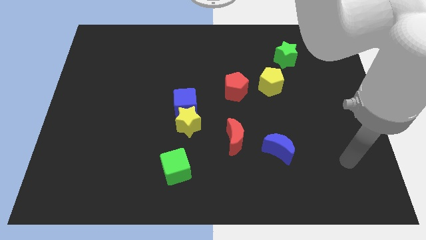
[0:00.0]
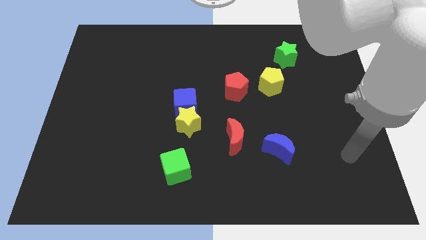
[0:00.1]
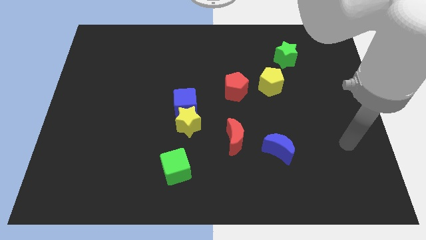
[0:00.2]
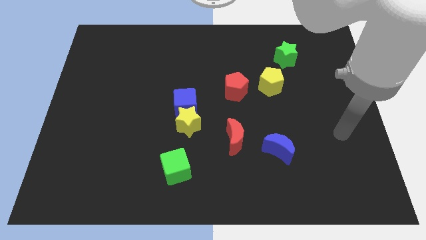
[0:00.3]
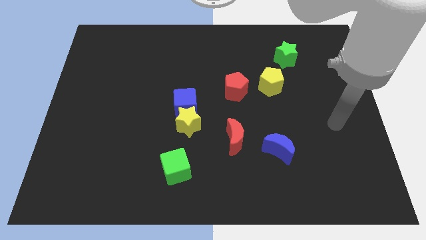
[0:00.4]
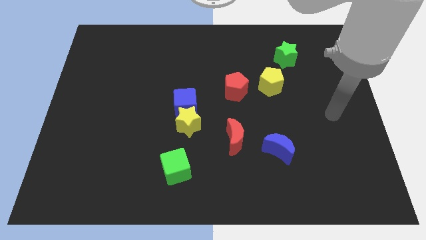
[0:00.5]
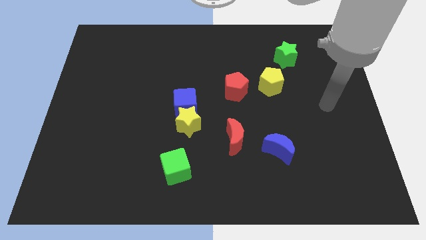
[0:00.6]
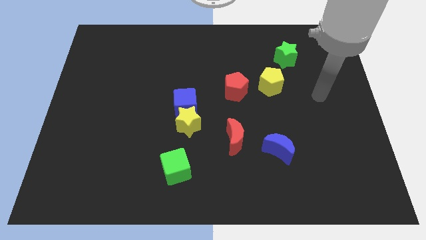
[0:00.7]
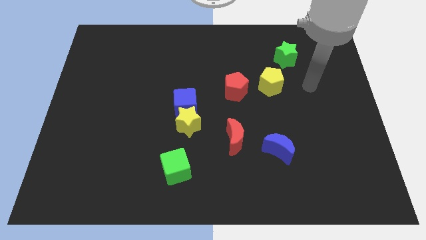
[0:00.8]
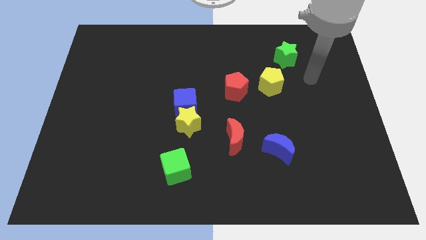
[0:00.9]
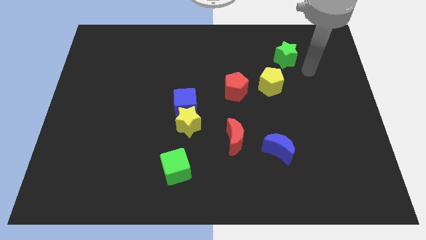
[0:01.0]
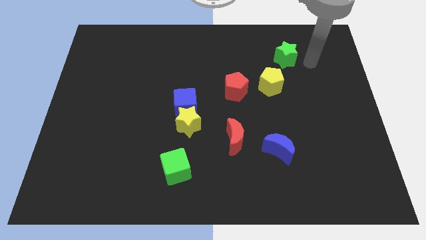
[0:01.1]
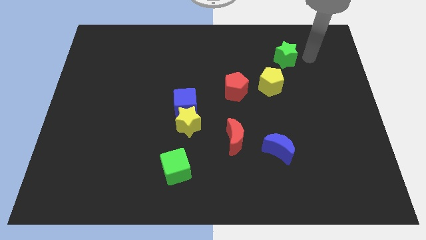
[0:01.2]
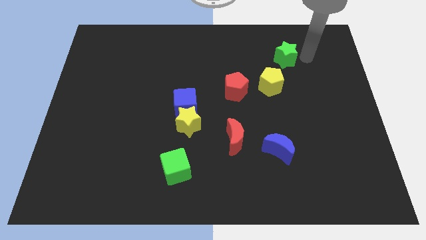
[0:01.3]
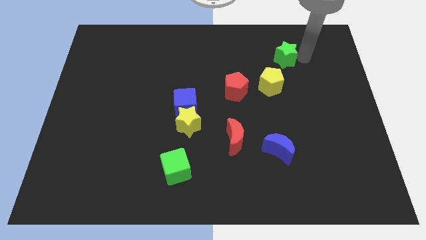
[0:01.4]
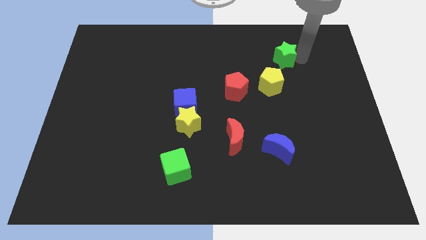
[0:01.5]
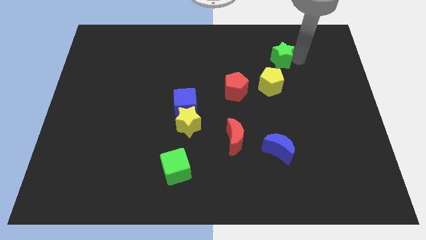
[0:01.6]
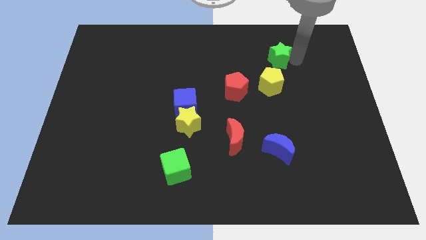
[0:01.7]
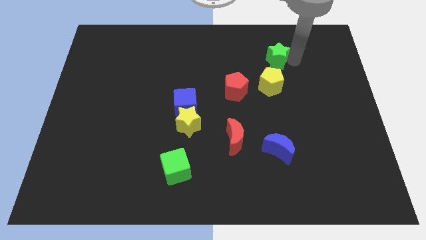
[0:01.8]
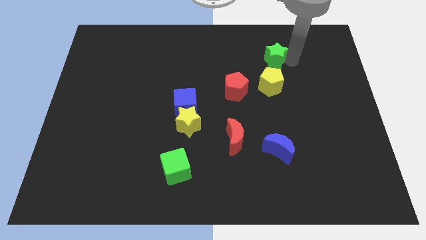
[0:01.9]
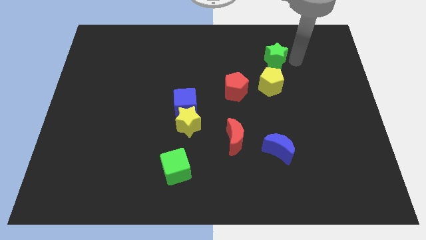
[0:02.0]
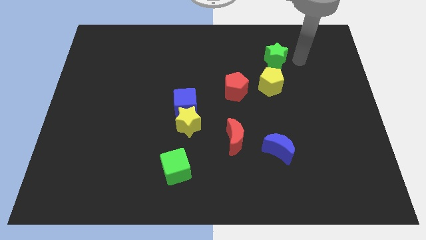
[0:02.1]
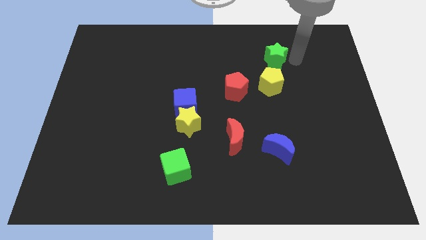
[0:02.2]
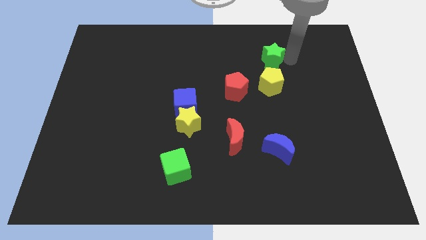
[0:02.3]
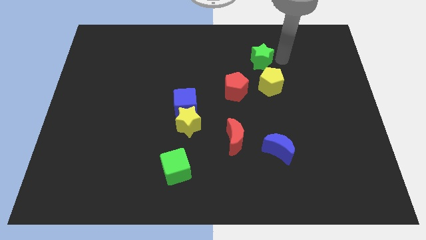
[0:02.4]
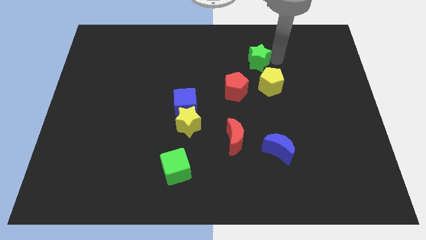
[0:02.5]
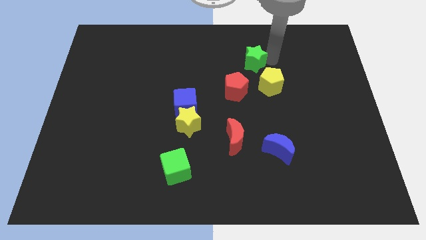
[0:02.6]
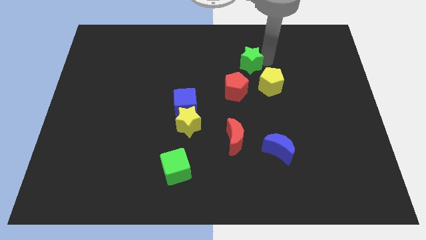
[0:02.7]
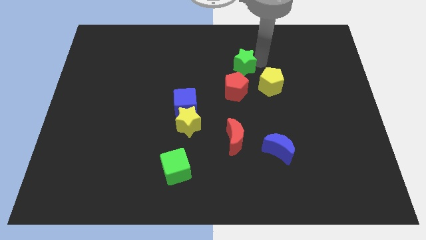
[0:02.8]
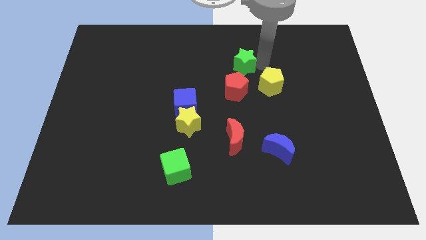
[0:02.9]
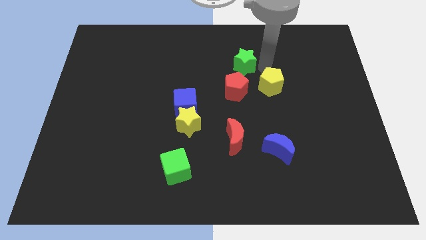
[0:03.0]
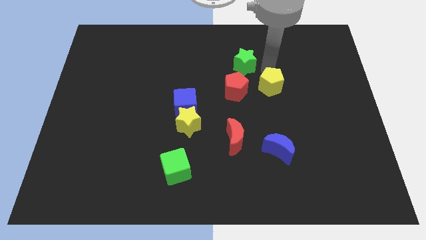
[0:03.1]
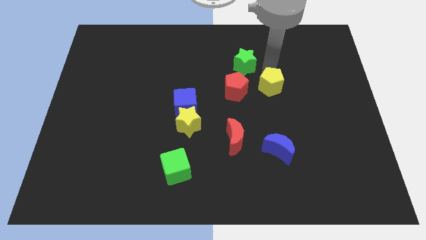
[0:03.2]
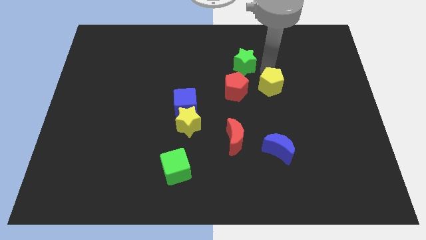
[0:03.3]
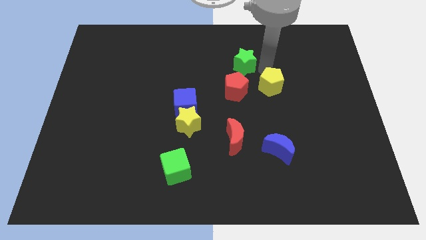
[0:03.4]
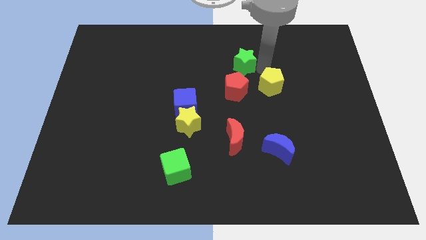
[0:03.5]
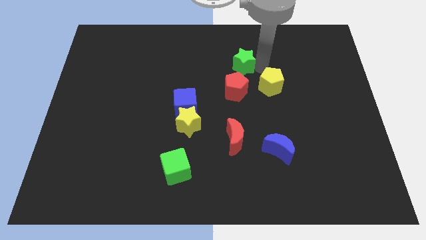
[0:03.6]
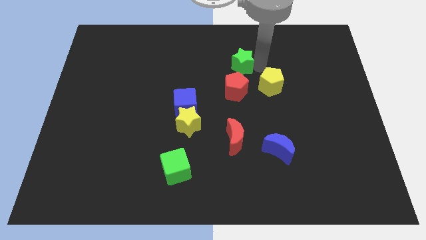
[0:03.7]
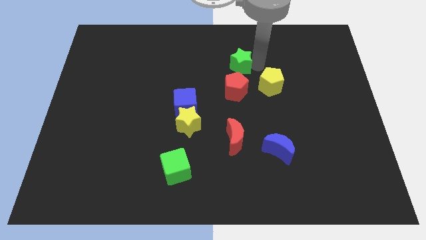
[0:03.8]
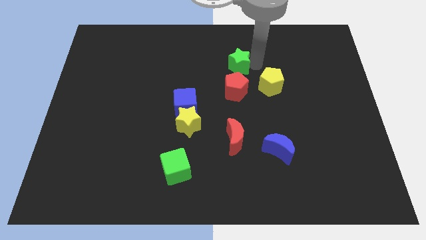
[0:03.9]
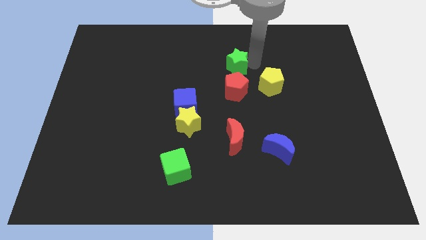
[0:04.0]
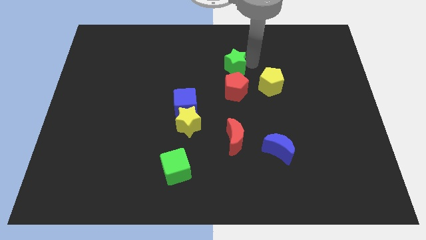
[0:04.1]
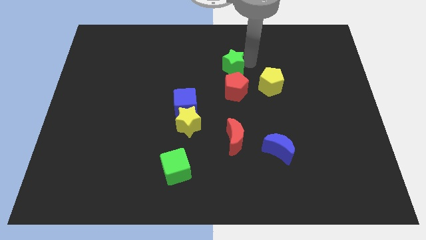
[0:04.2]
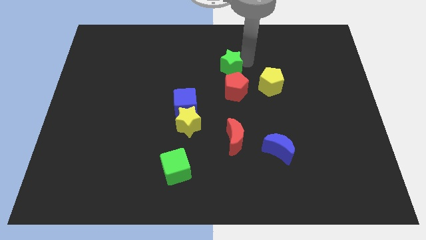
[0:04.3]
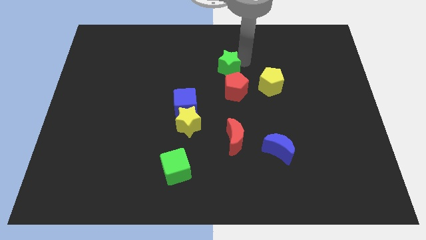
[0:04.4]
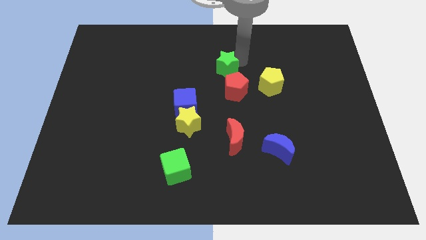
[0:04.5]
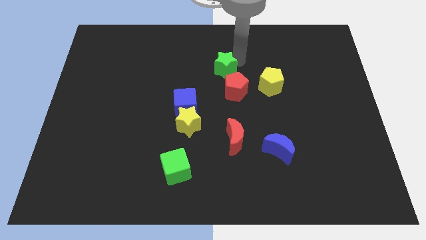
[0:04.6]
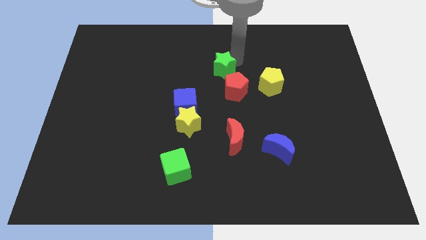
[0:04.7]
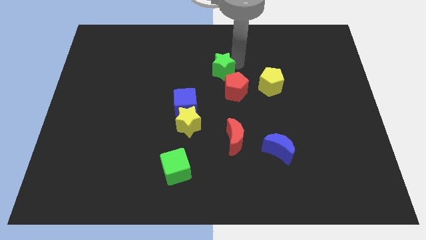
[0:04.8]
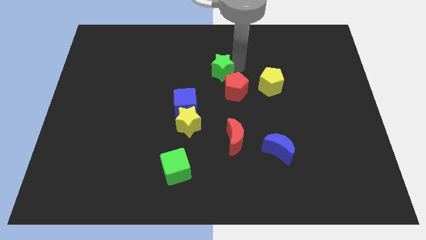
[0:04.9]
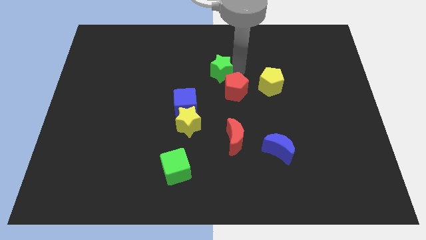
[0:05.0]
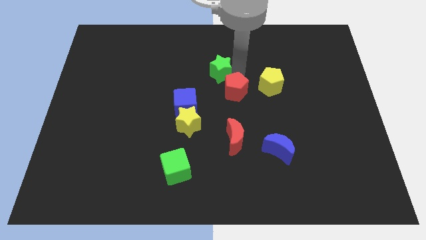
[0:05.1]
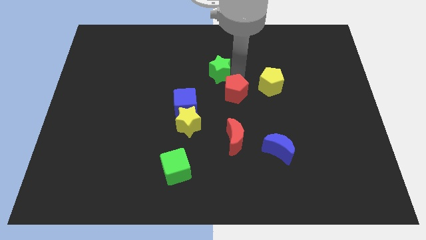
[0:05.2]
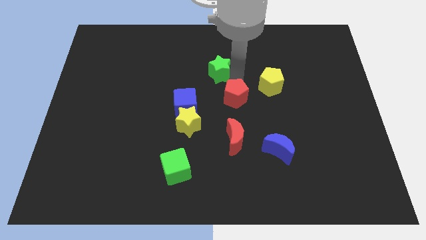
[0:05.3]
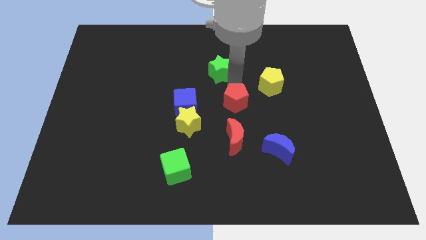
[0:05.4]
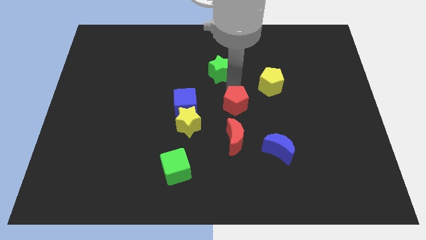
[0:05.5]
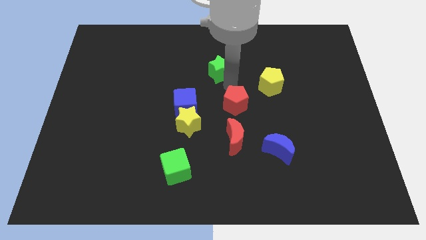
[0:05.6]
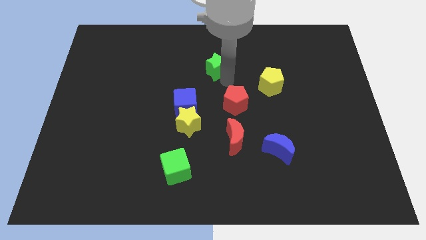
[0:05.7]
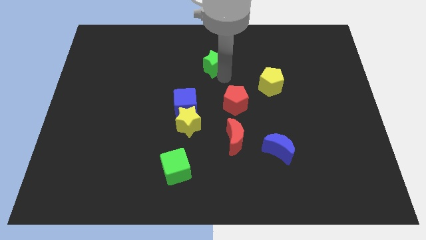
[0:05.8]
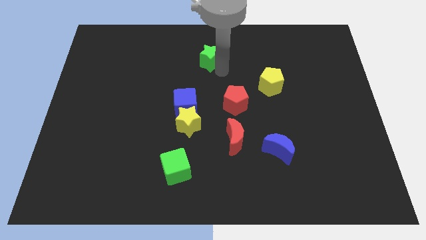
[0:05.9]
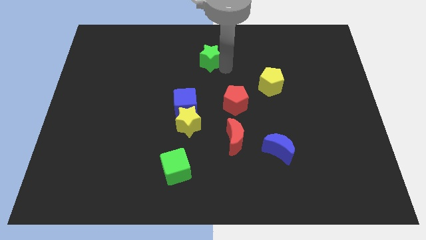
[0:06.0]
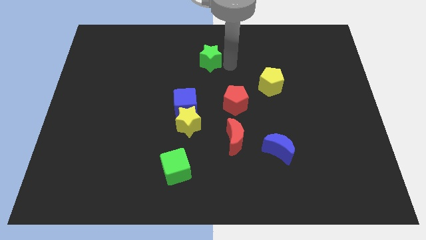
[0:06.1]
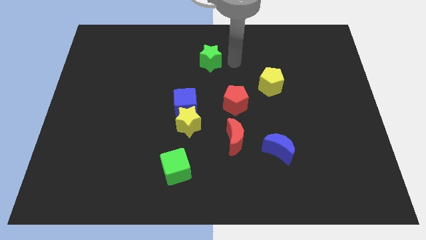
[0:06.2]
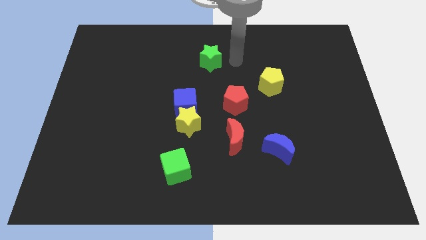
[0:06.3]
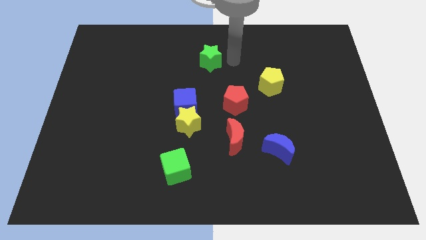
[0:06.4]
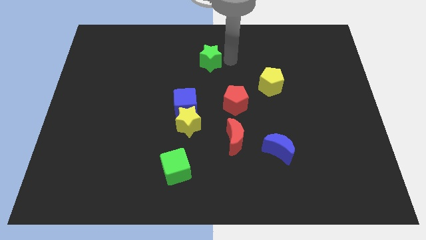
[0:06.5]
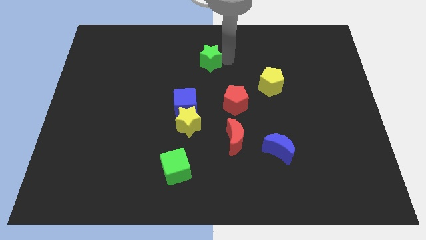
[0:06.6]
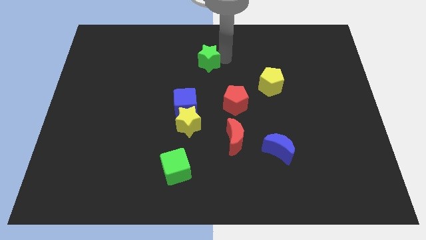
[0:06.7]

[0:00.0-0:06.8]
slide the green star to the left

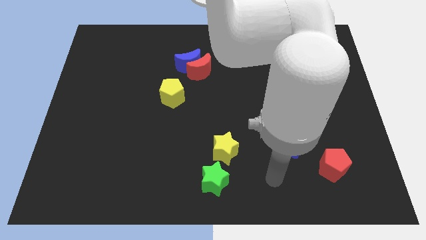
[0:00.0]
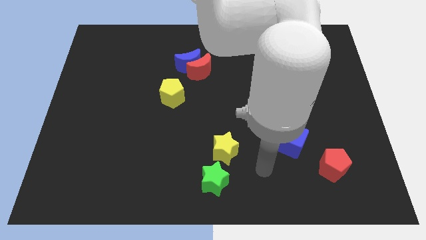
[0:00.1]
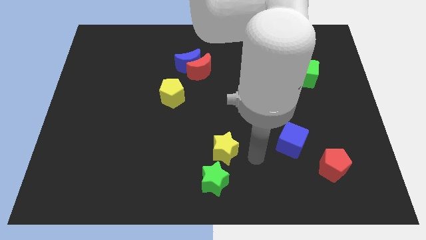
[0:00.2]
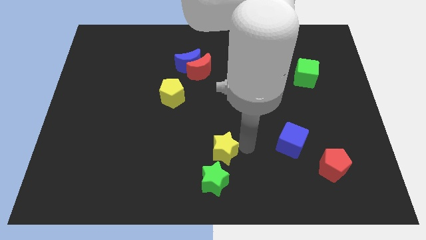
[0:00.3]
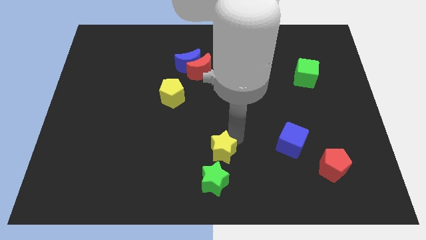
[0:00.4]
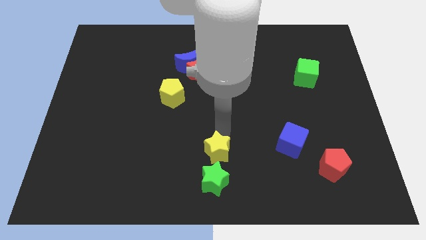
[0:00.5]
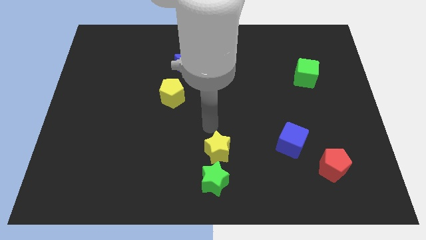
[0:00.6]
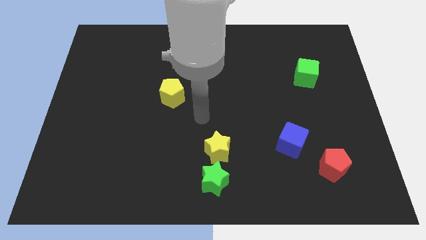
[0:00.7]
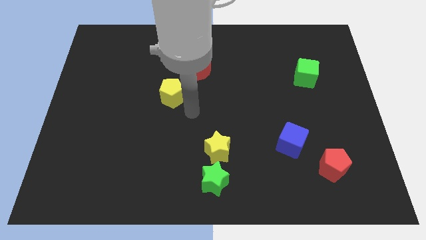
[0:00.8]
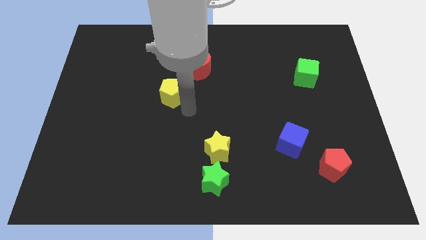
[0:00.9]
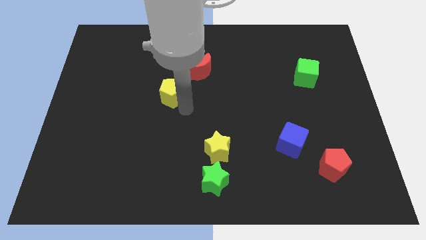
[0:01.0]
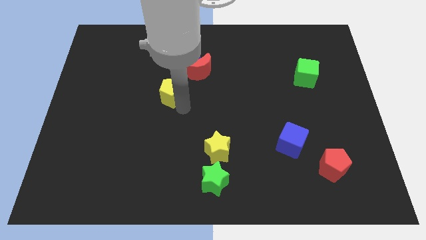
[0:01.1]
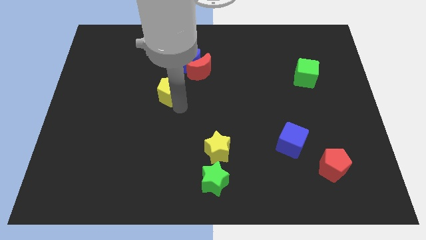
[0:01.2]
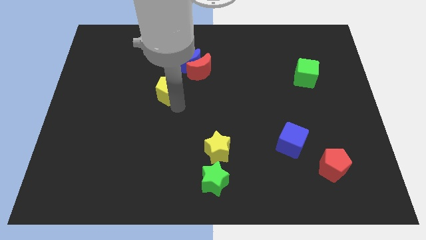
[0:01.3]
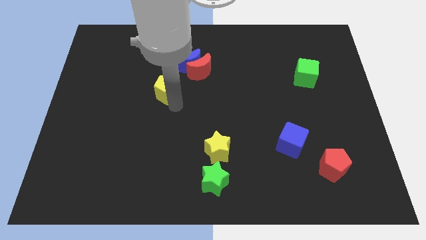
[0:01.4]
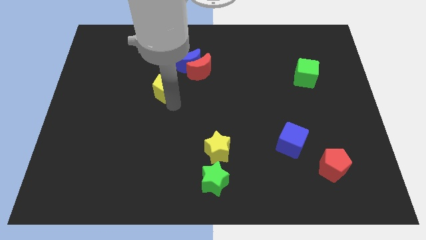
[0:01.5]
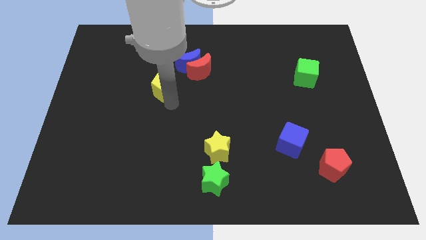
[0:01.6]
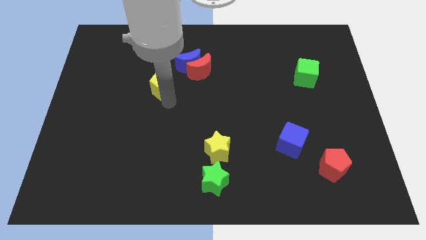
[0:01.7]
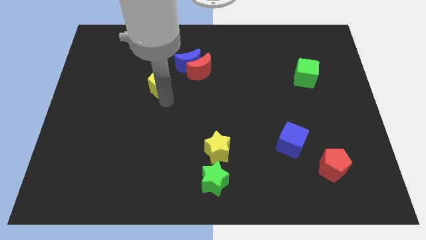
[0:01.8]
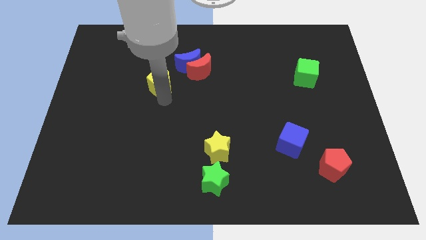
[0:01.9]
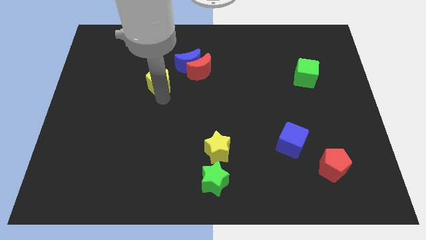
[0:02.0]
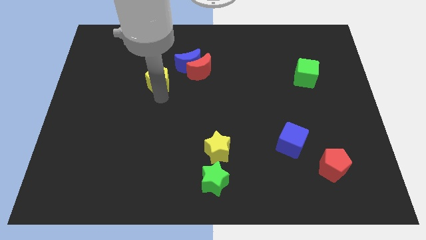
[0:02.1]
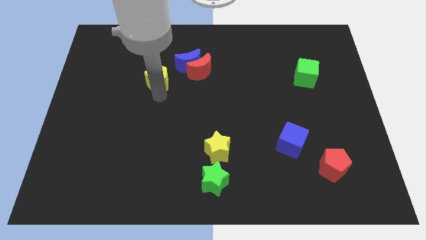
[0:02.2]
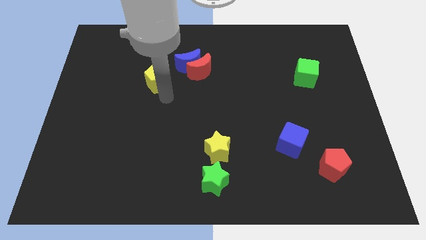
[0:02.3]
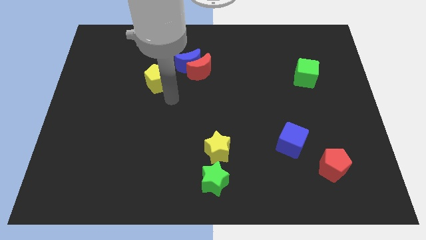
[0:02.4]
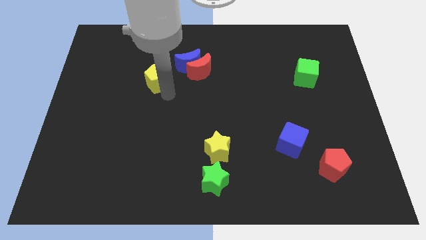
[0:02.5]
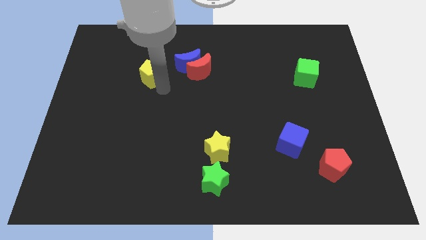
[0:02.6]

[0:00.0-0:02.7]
slightly push the yellow pentagon up and left
